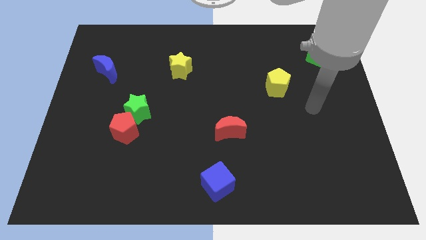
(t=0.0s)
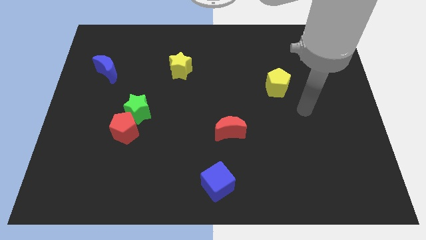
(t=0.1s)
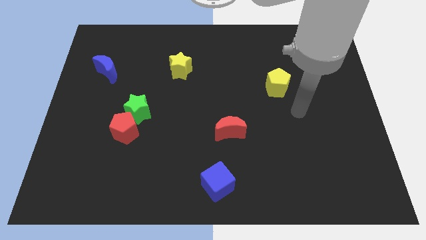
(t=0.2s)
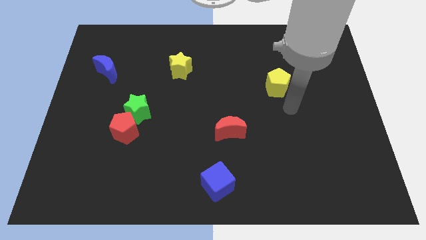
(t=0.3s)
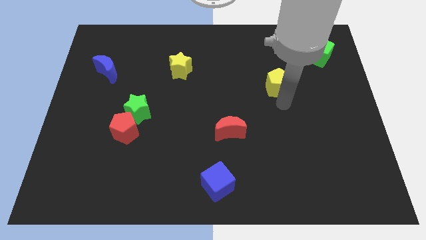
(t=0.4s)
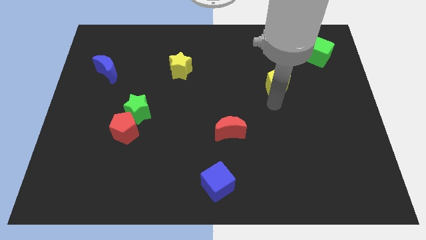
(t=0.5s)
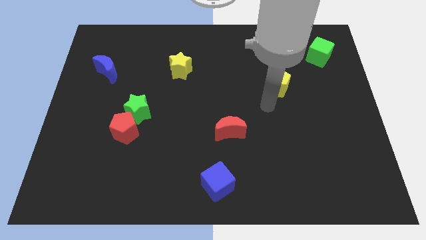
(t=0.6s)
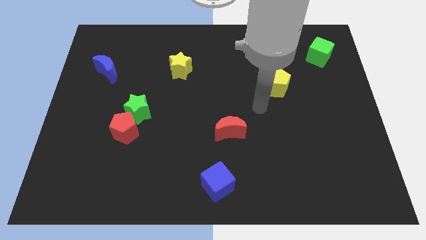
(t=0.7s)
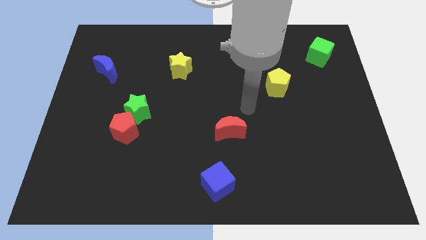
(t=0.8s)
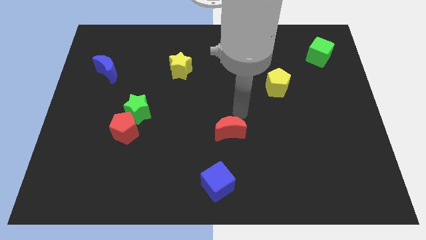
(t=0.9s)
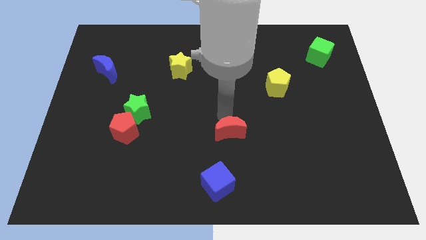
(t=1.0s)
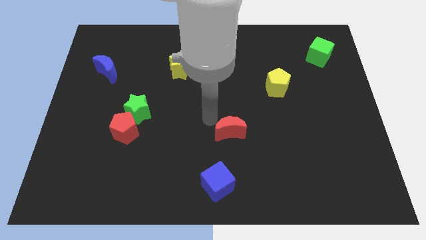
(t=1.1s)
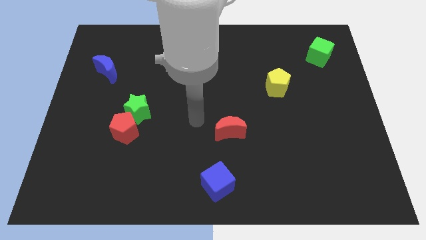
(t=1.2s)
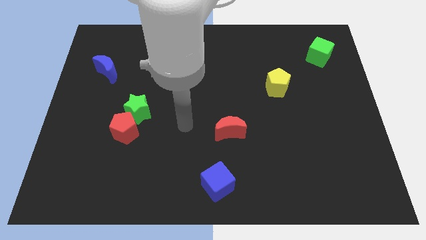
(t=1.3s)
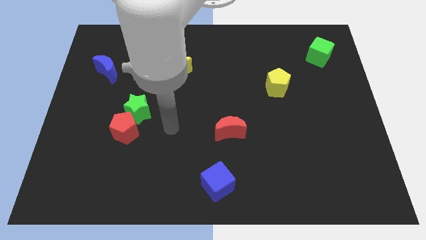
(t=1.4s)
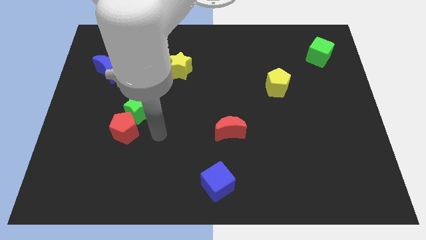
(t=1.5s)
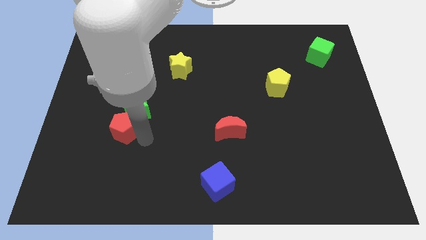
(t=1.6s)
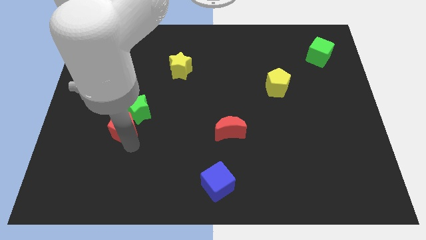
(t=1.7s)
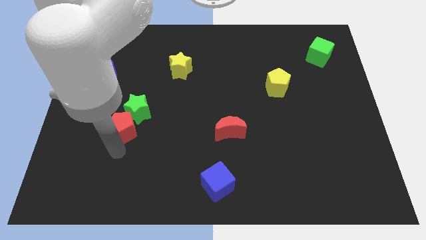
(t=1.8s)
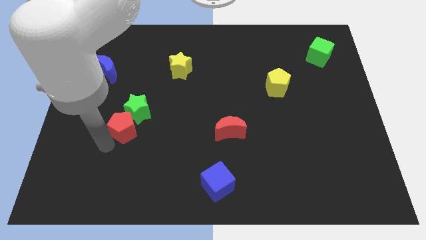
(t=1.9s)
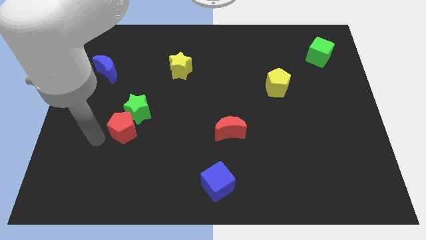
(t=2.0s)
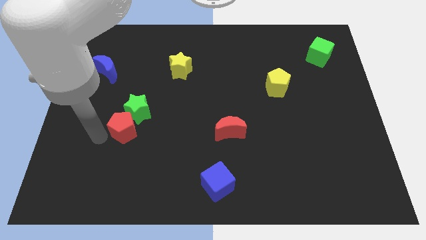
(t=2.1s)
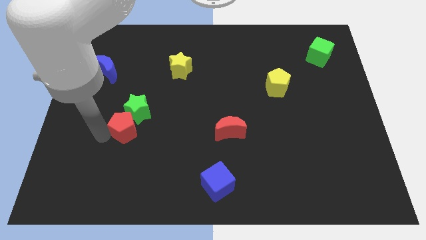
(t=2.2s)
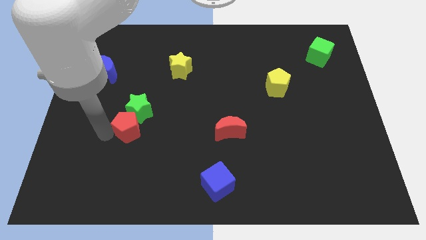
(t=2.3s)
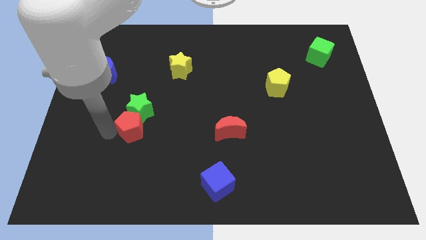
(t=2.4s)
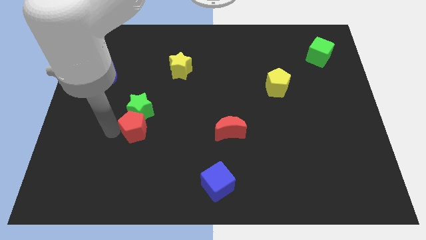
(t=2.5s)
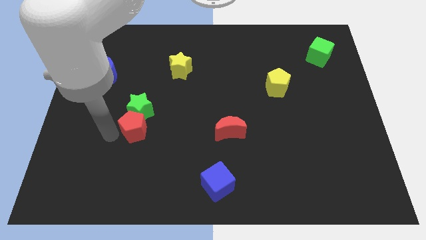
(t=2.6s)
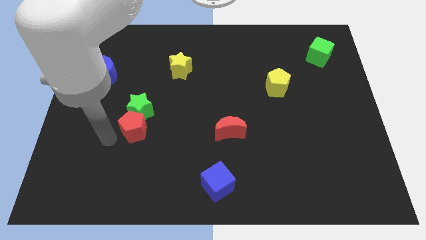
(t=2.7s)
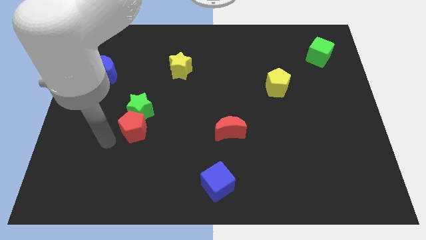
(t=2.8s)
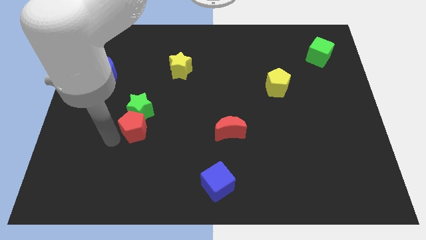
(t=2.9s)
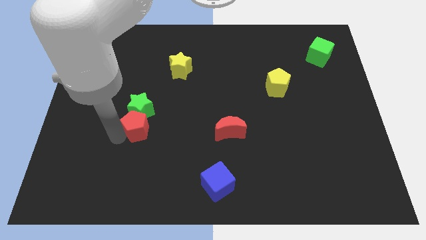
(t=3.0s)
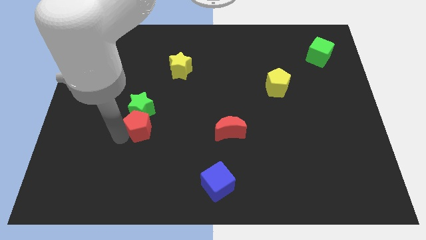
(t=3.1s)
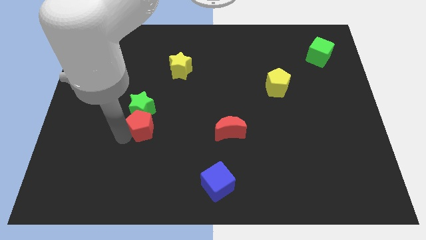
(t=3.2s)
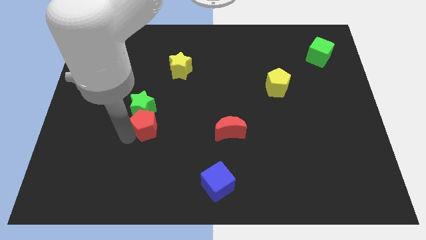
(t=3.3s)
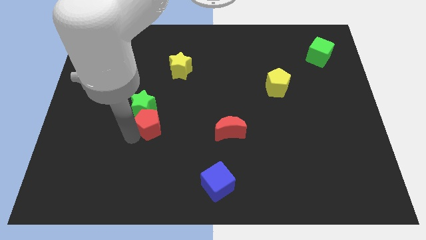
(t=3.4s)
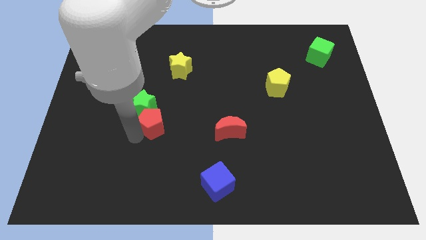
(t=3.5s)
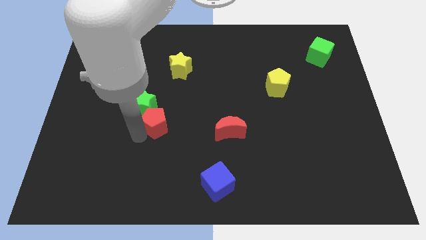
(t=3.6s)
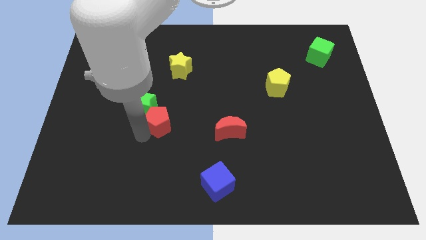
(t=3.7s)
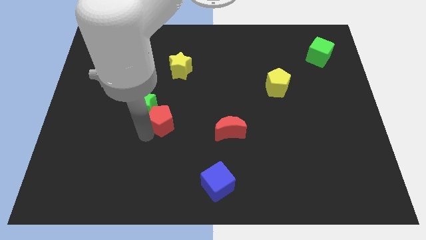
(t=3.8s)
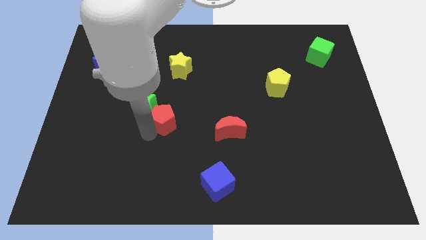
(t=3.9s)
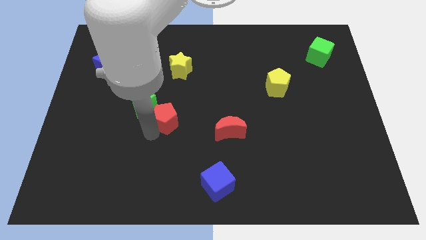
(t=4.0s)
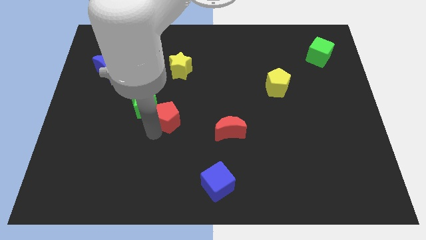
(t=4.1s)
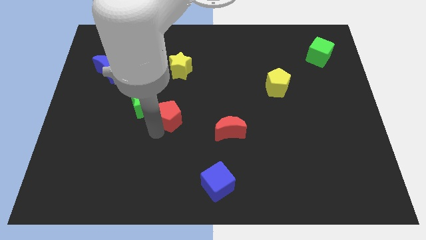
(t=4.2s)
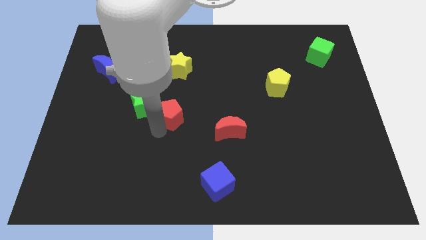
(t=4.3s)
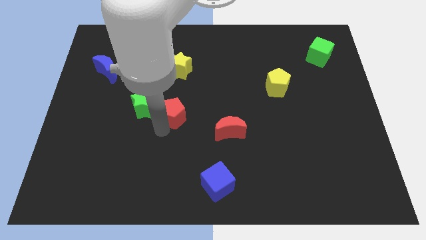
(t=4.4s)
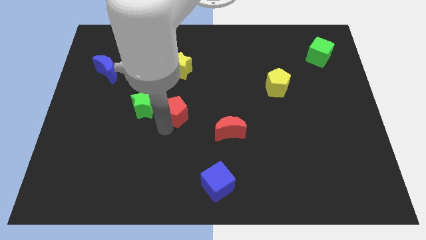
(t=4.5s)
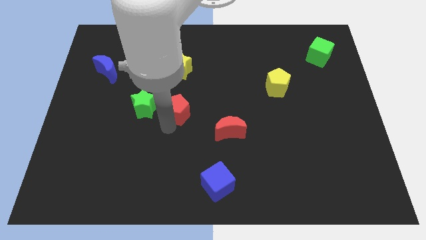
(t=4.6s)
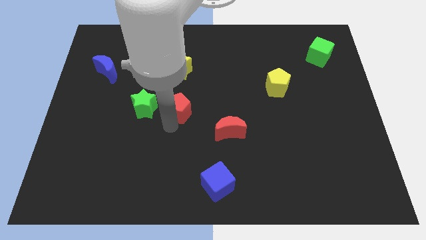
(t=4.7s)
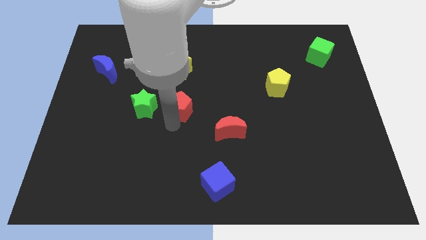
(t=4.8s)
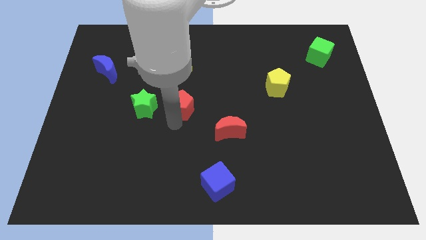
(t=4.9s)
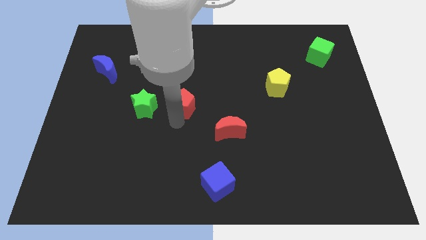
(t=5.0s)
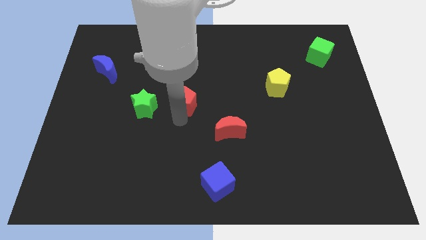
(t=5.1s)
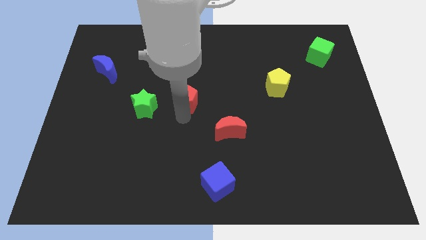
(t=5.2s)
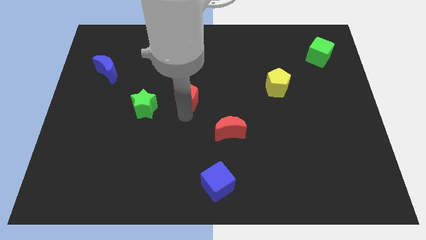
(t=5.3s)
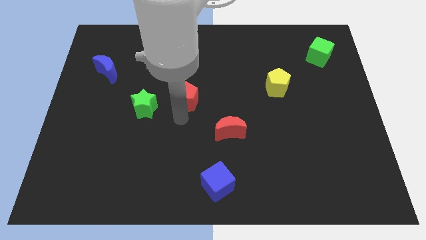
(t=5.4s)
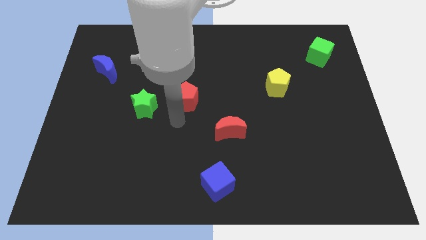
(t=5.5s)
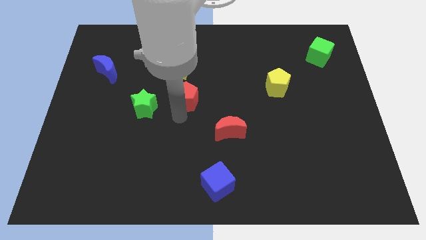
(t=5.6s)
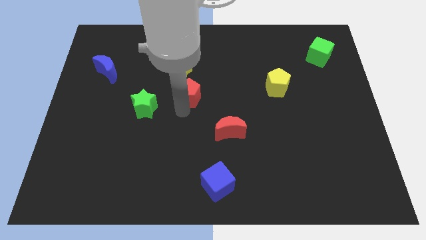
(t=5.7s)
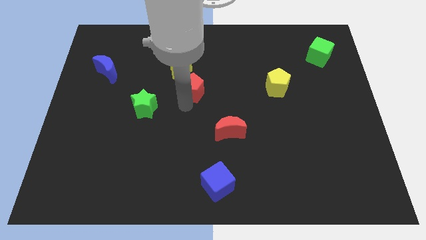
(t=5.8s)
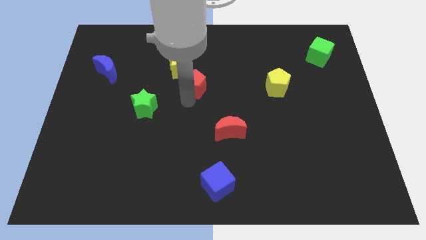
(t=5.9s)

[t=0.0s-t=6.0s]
move the red pentagon diagonally upwards and right

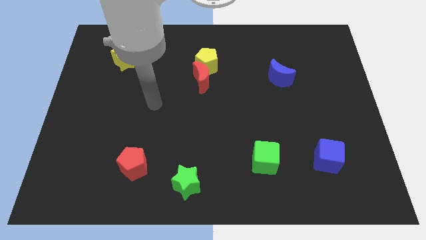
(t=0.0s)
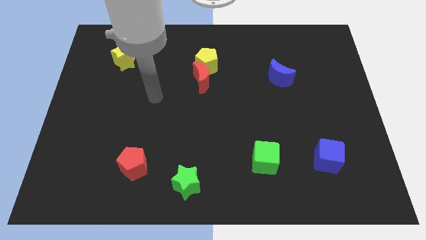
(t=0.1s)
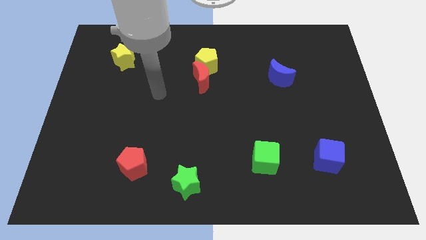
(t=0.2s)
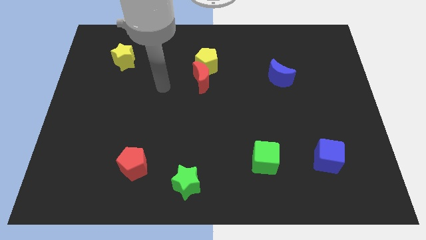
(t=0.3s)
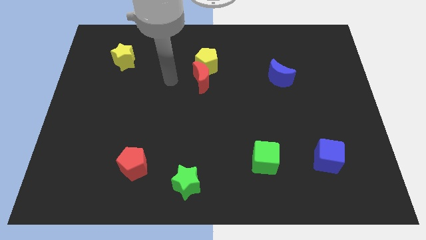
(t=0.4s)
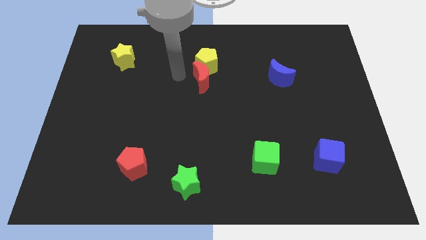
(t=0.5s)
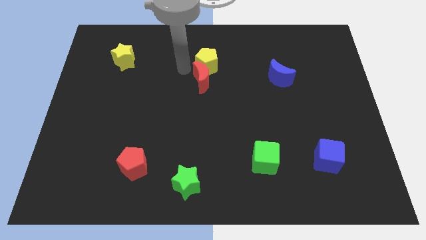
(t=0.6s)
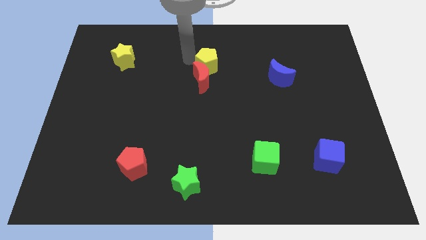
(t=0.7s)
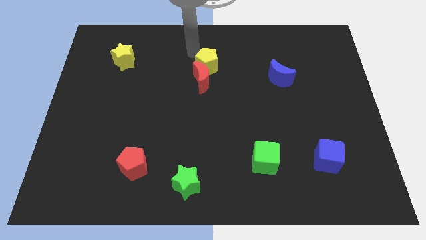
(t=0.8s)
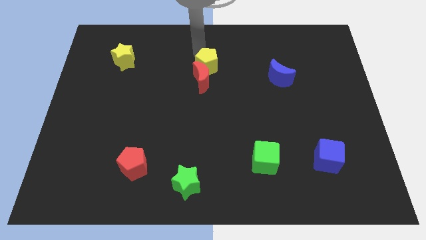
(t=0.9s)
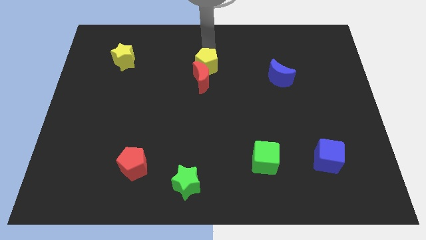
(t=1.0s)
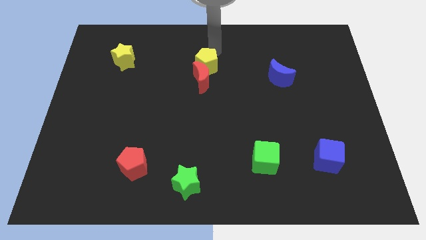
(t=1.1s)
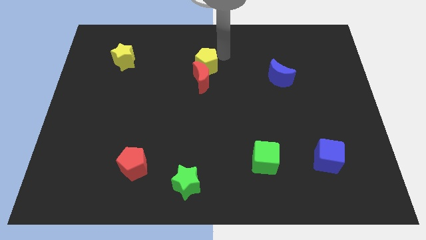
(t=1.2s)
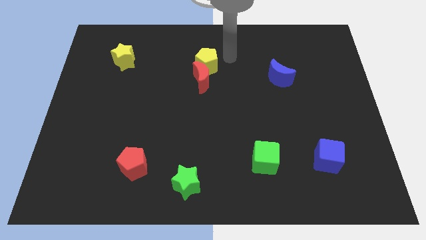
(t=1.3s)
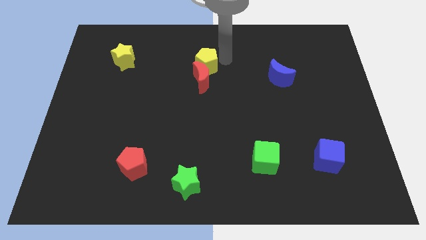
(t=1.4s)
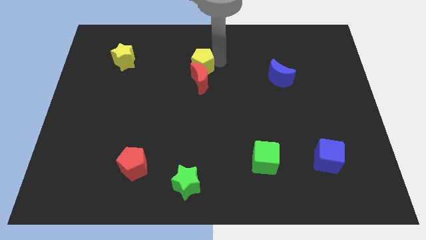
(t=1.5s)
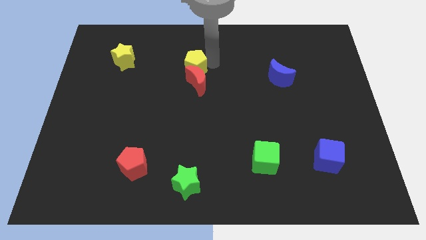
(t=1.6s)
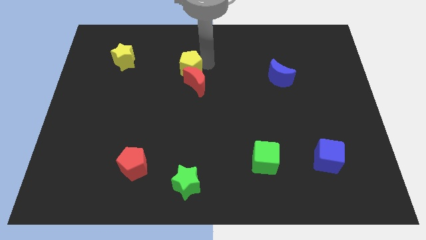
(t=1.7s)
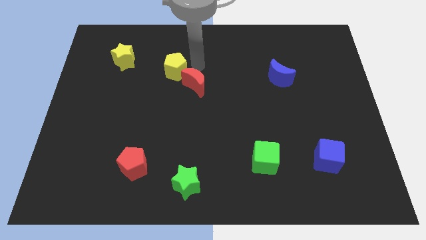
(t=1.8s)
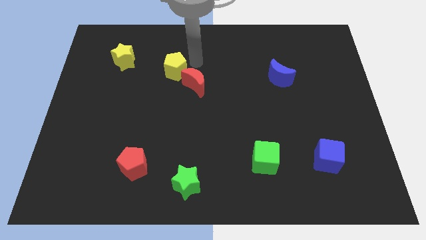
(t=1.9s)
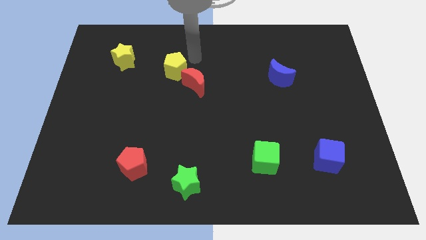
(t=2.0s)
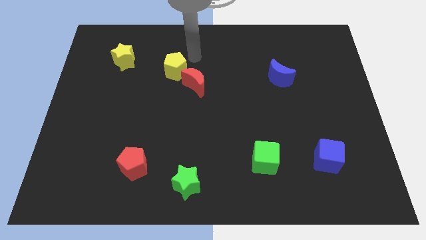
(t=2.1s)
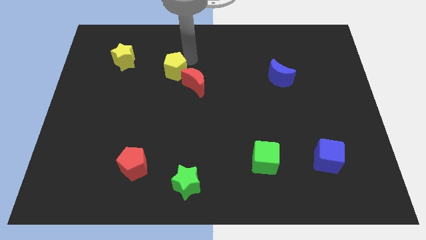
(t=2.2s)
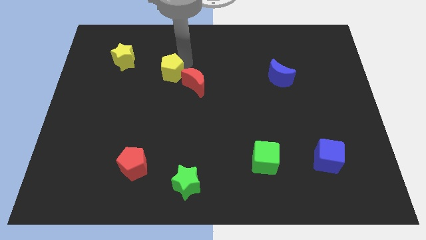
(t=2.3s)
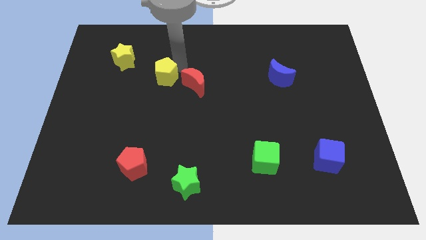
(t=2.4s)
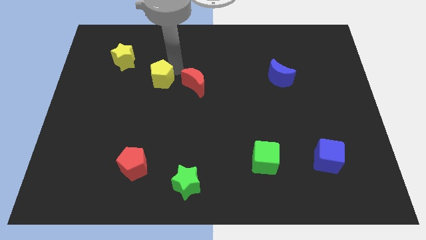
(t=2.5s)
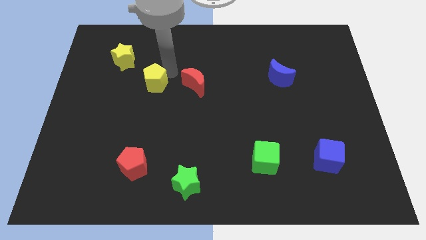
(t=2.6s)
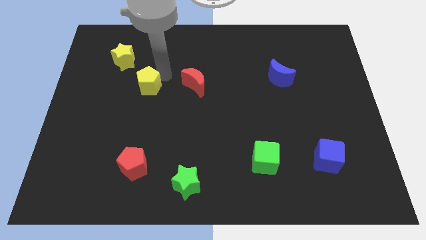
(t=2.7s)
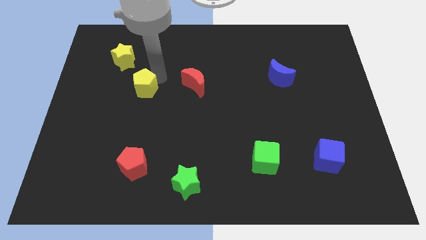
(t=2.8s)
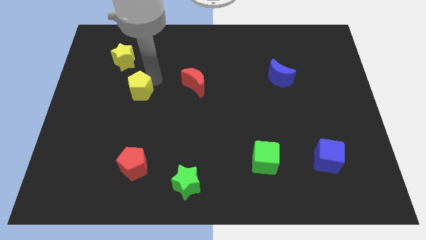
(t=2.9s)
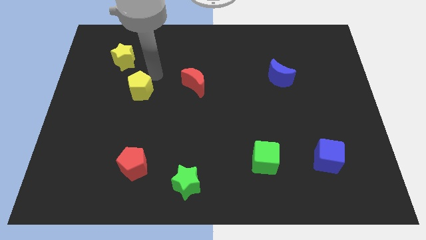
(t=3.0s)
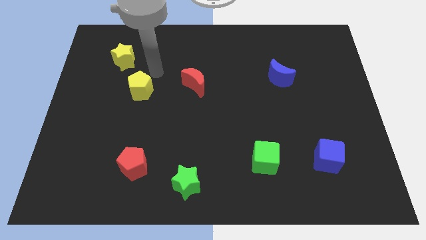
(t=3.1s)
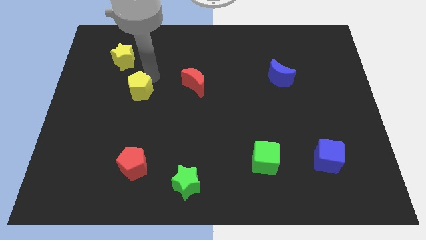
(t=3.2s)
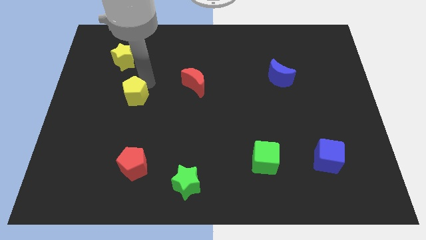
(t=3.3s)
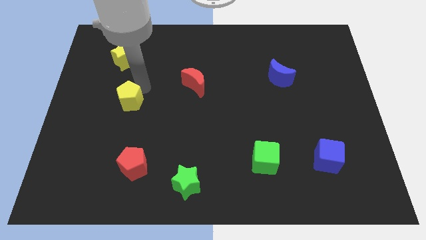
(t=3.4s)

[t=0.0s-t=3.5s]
slide the yellow pentagon downwards and left diagonally
